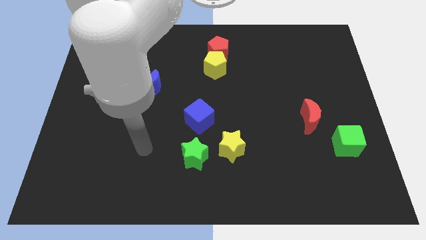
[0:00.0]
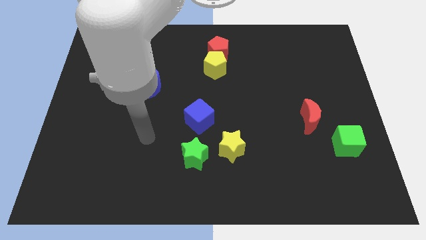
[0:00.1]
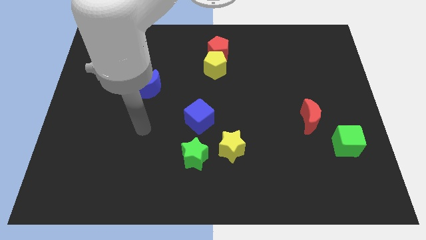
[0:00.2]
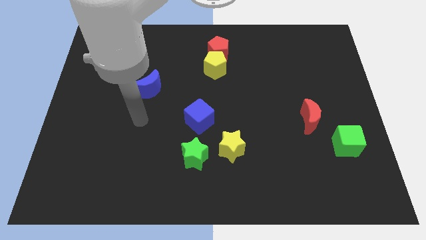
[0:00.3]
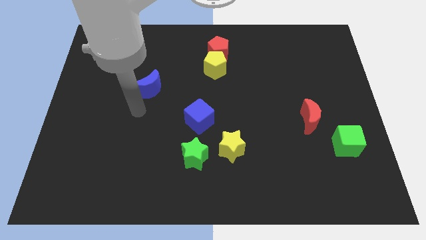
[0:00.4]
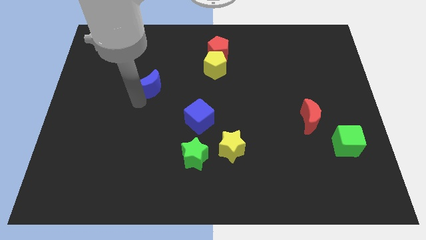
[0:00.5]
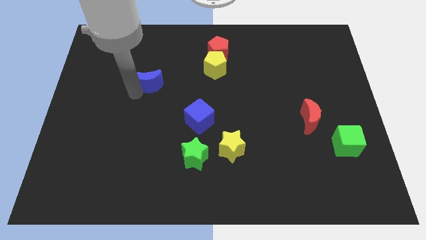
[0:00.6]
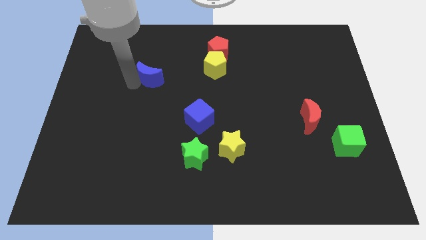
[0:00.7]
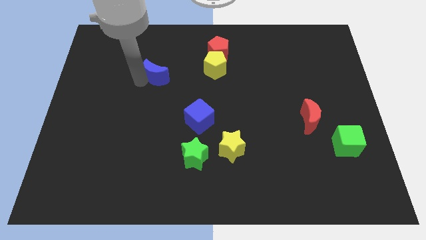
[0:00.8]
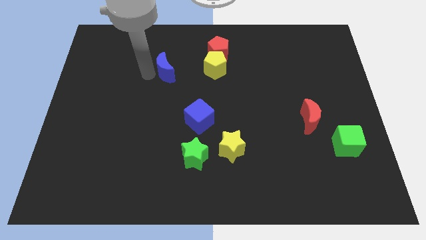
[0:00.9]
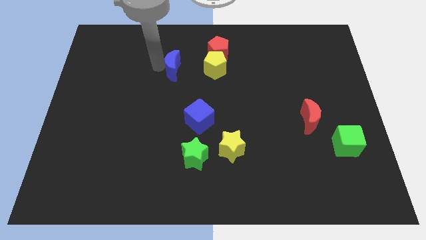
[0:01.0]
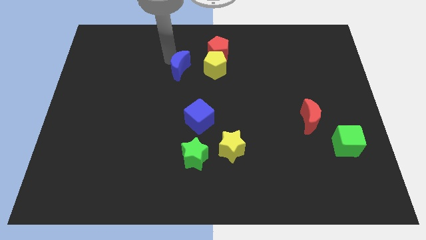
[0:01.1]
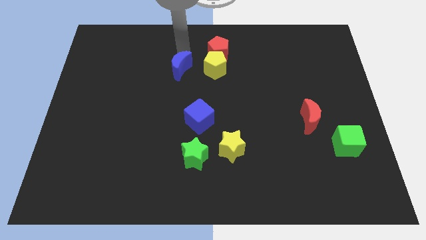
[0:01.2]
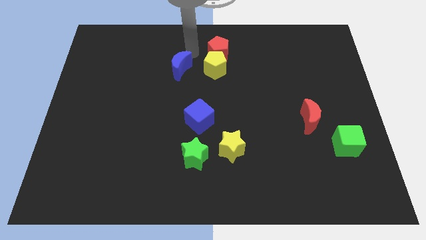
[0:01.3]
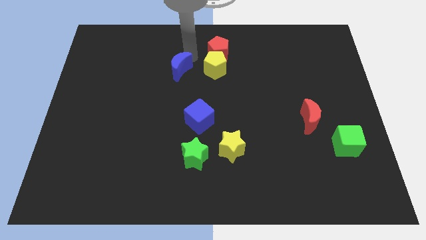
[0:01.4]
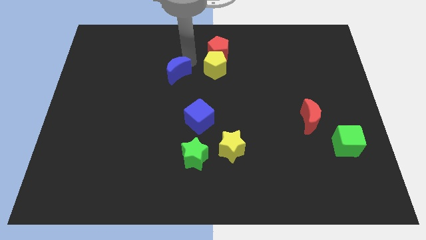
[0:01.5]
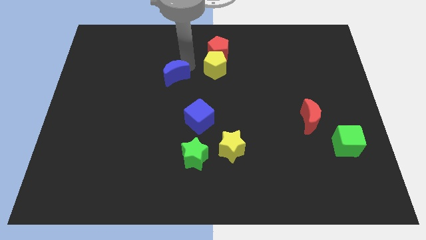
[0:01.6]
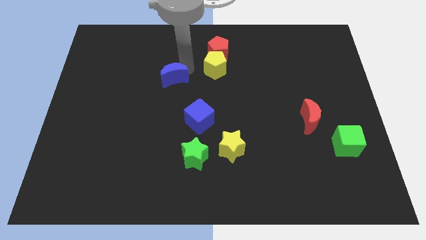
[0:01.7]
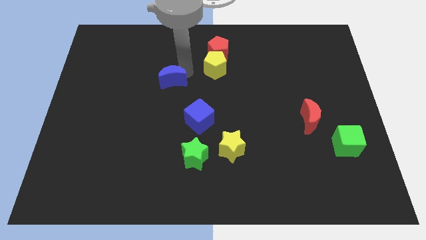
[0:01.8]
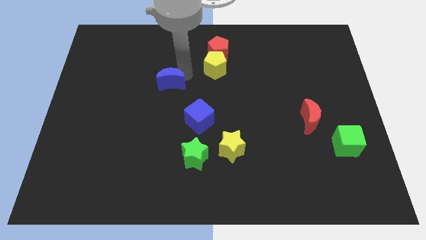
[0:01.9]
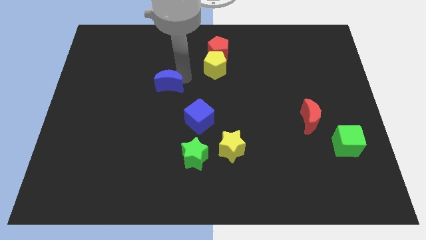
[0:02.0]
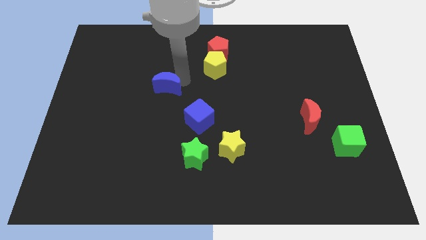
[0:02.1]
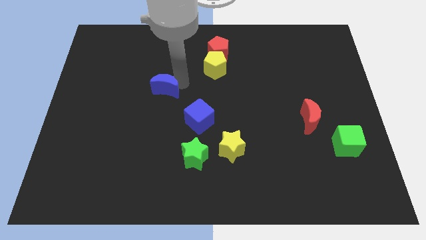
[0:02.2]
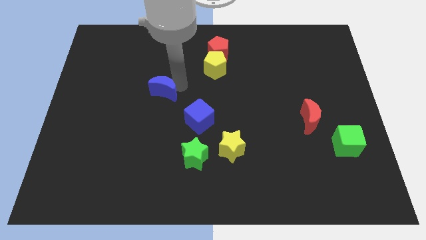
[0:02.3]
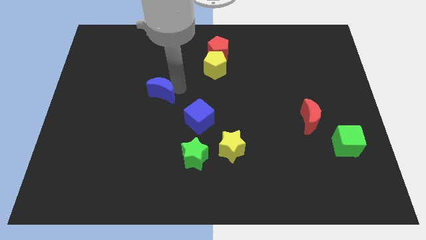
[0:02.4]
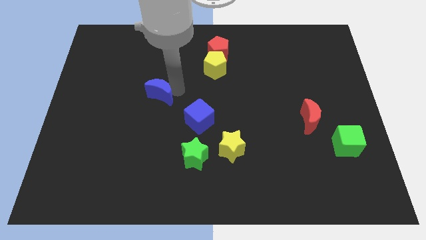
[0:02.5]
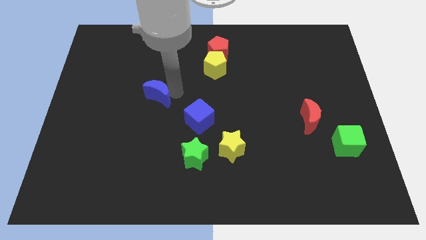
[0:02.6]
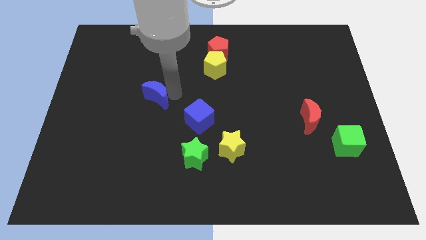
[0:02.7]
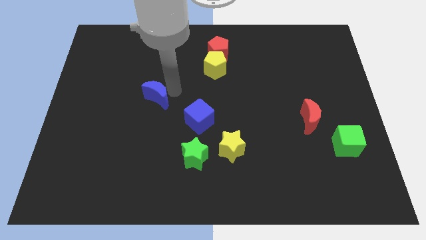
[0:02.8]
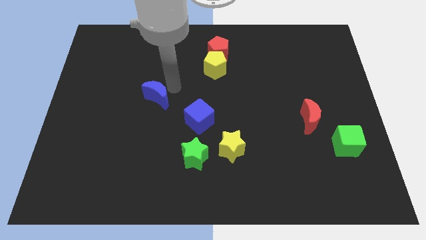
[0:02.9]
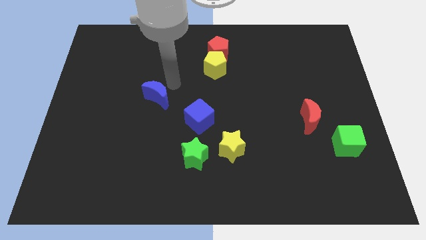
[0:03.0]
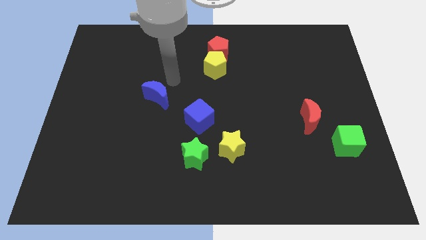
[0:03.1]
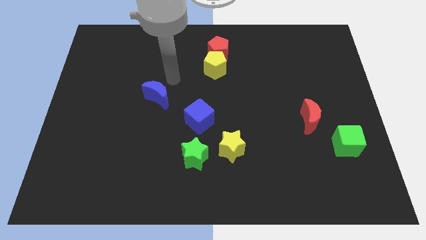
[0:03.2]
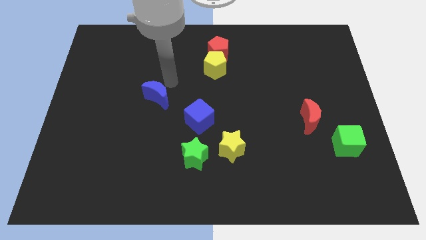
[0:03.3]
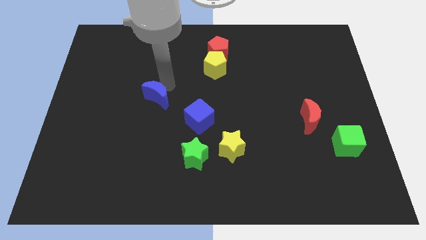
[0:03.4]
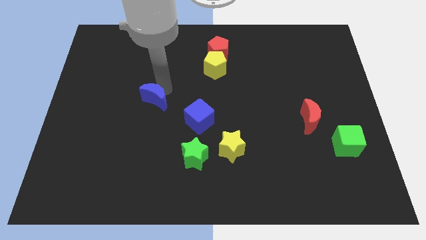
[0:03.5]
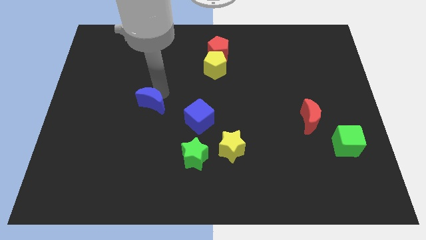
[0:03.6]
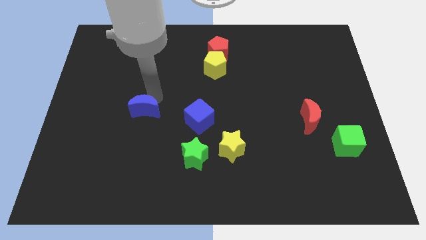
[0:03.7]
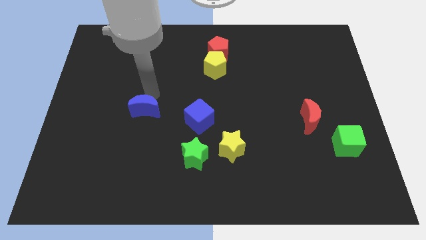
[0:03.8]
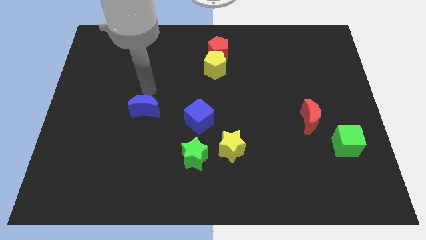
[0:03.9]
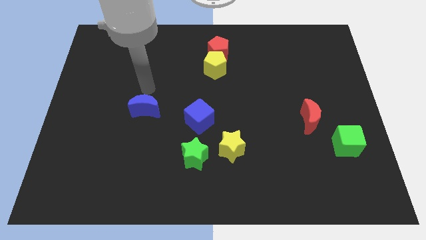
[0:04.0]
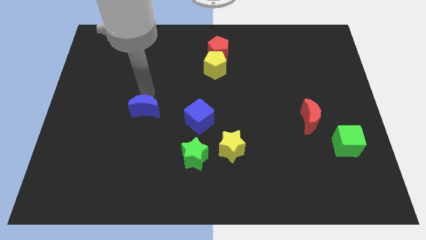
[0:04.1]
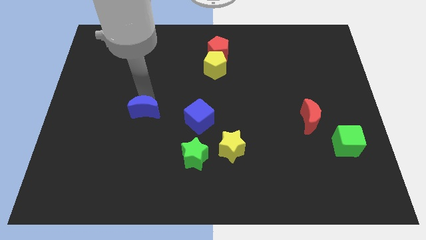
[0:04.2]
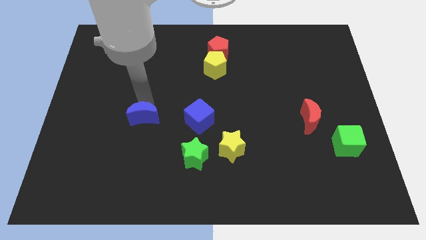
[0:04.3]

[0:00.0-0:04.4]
push the blue moon slightly down

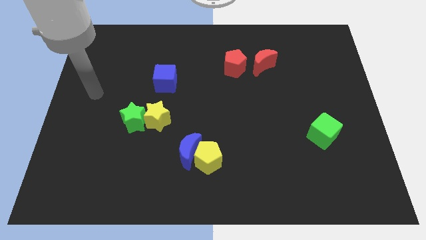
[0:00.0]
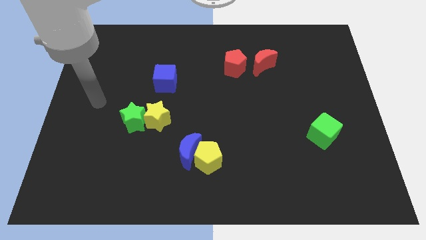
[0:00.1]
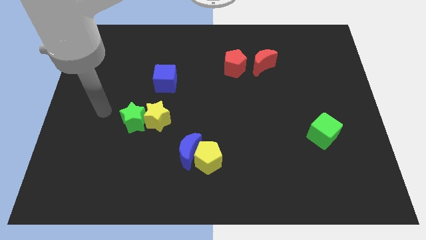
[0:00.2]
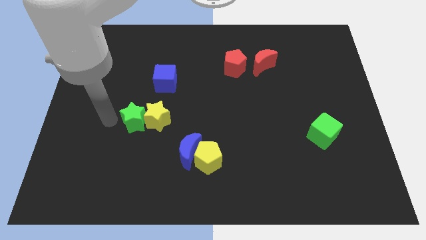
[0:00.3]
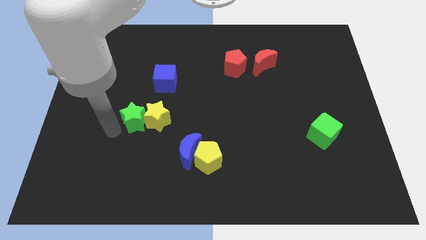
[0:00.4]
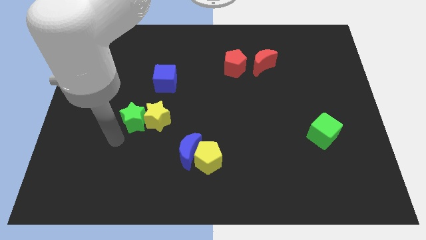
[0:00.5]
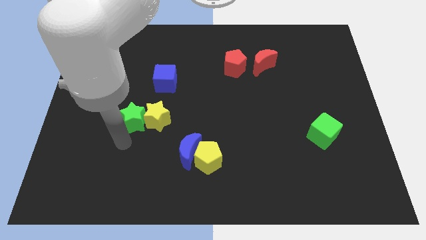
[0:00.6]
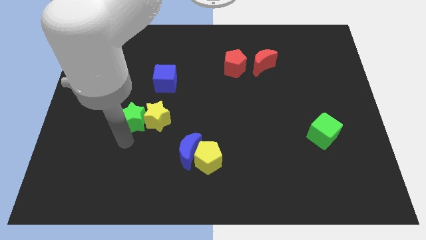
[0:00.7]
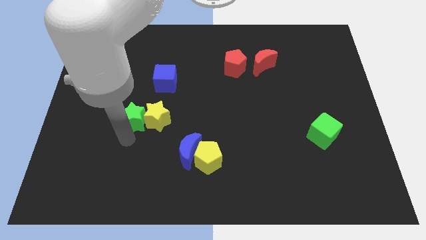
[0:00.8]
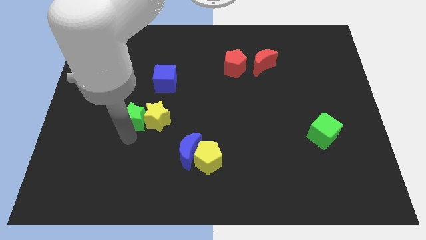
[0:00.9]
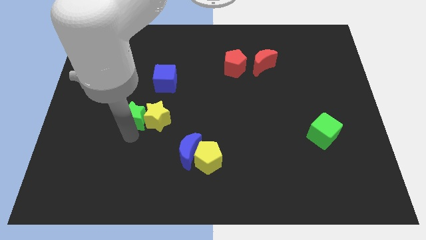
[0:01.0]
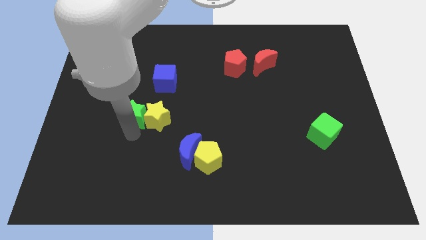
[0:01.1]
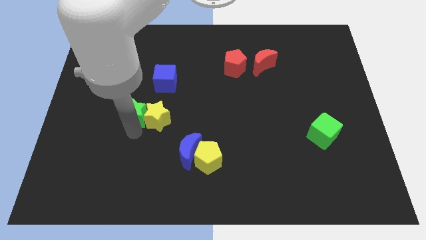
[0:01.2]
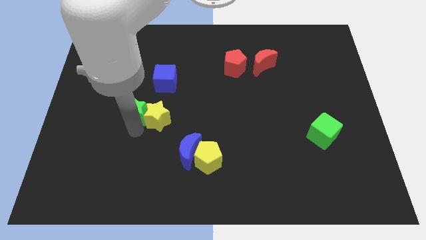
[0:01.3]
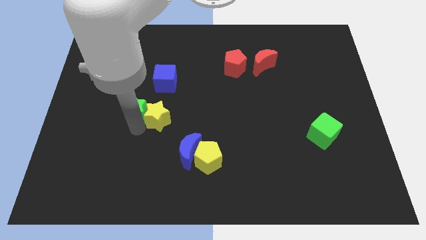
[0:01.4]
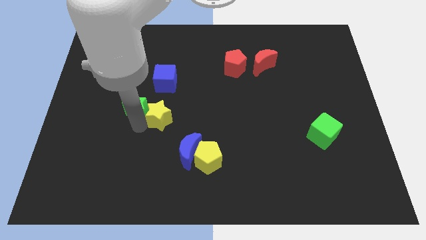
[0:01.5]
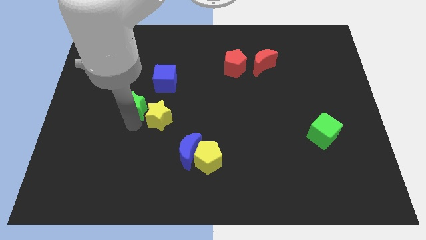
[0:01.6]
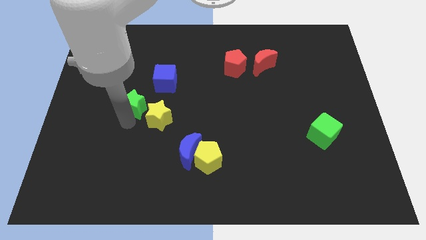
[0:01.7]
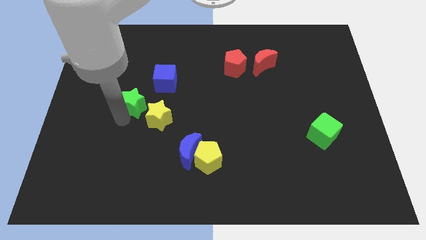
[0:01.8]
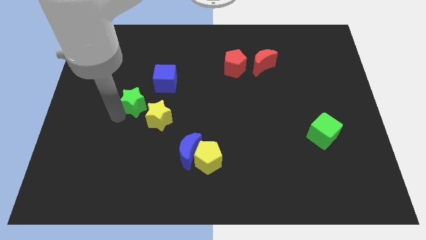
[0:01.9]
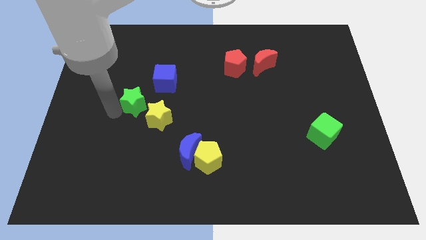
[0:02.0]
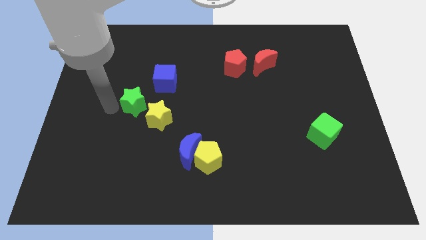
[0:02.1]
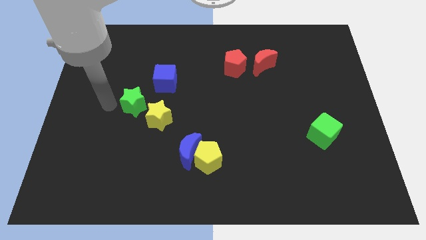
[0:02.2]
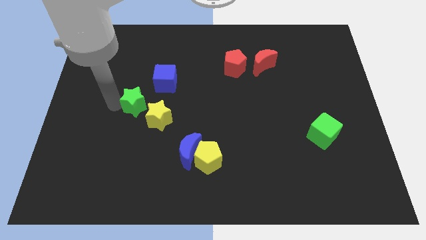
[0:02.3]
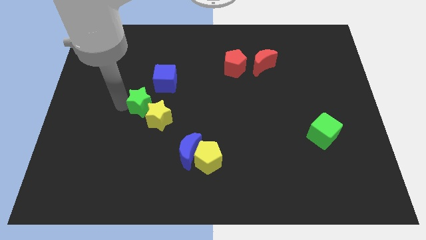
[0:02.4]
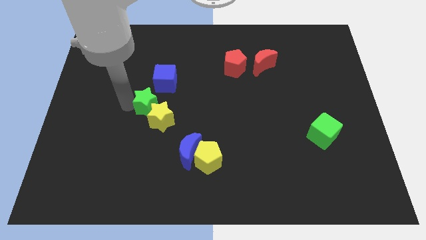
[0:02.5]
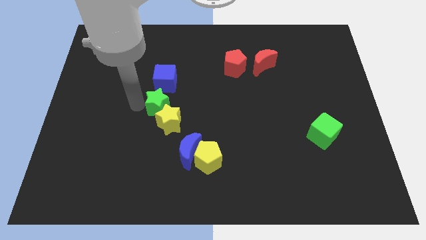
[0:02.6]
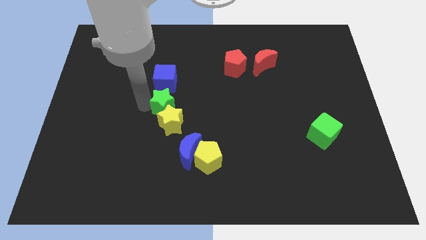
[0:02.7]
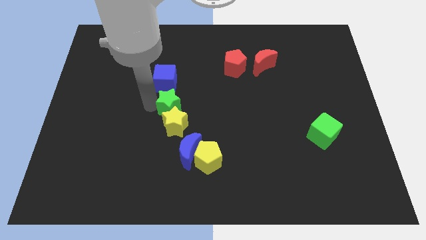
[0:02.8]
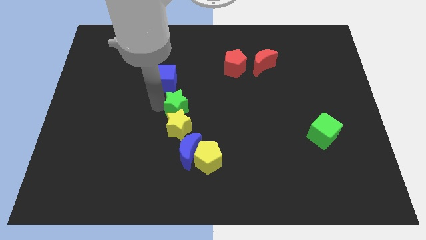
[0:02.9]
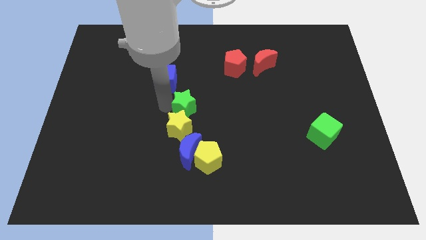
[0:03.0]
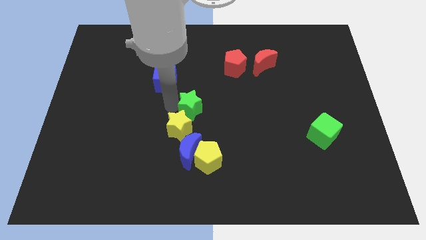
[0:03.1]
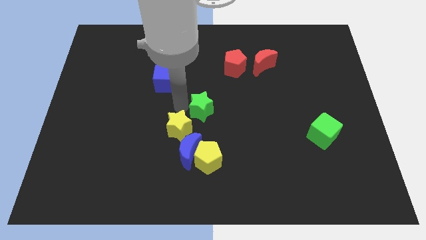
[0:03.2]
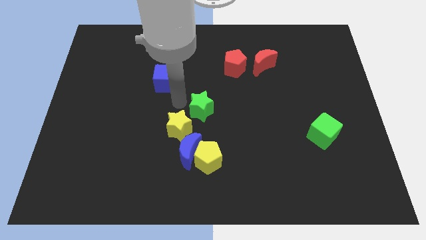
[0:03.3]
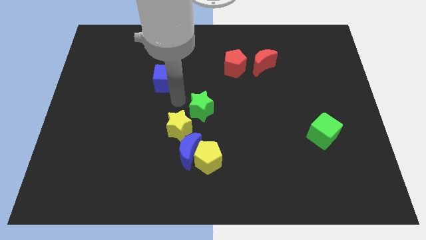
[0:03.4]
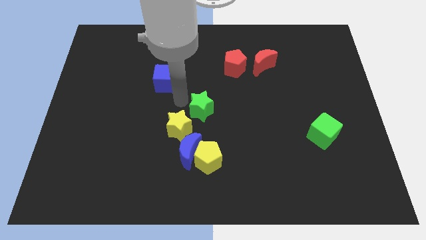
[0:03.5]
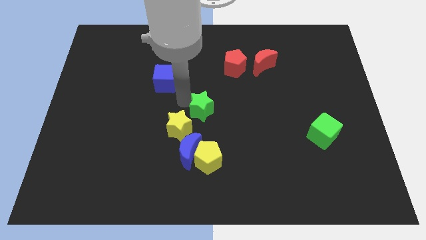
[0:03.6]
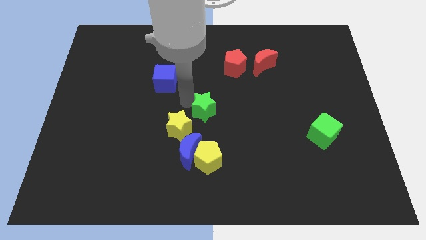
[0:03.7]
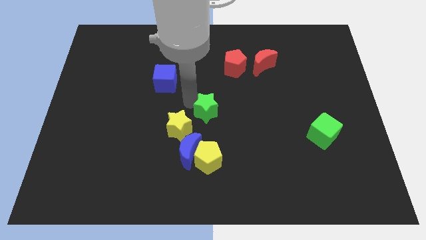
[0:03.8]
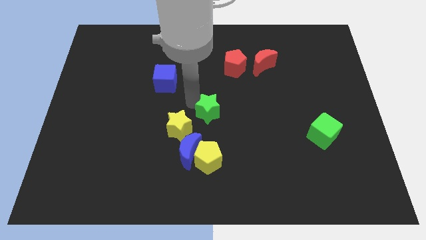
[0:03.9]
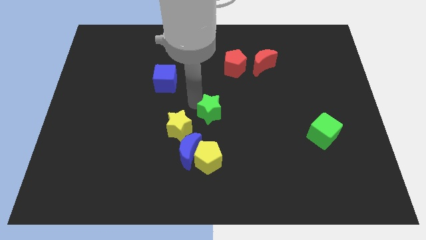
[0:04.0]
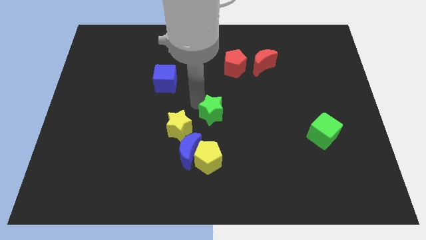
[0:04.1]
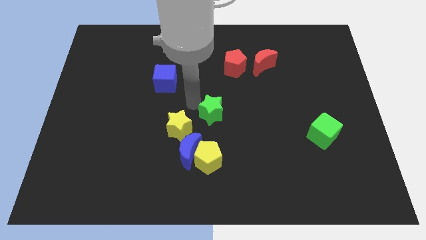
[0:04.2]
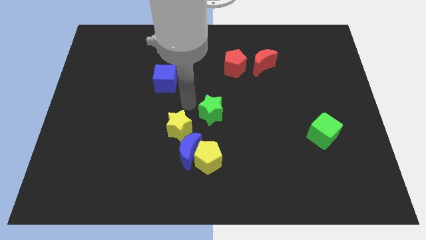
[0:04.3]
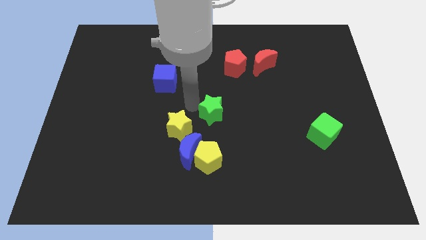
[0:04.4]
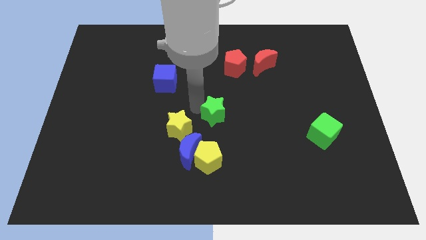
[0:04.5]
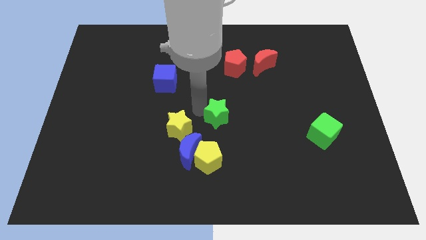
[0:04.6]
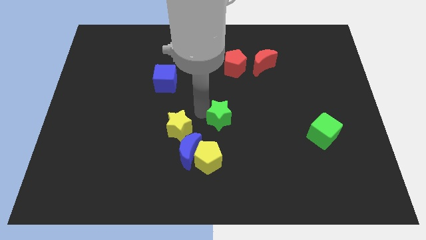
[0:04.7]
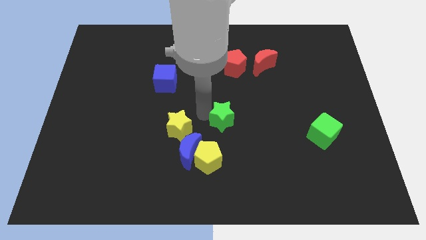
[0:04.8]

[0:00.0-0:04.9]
push the green star right
